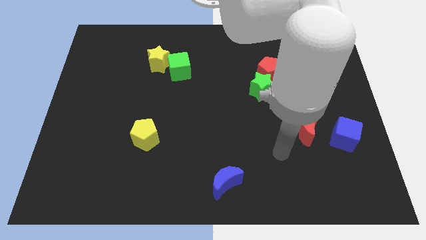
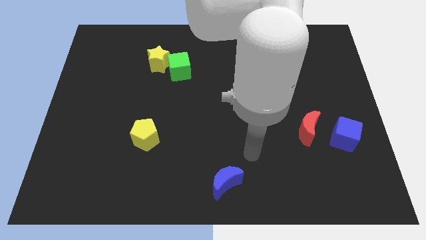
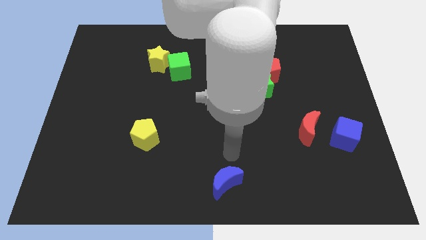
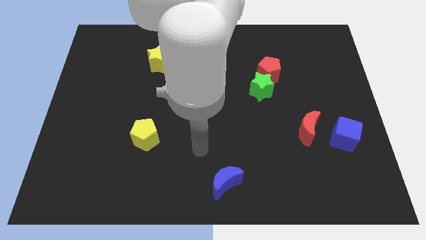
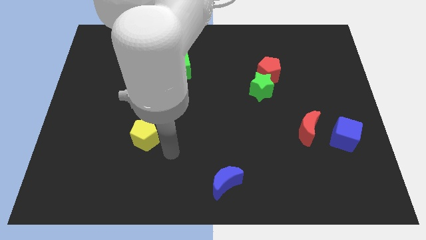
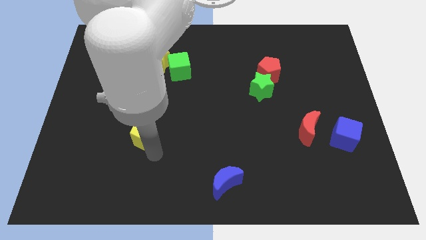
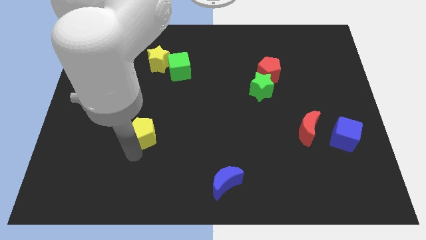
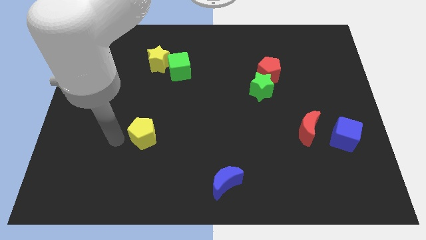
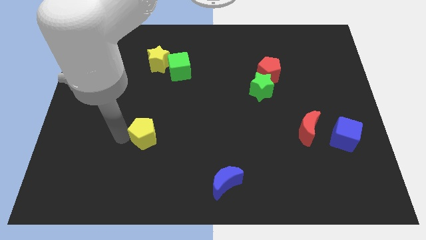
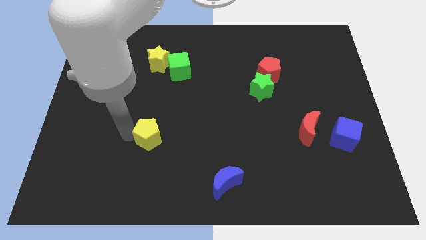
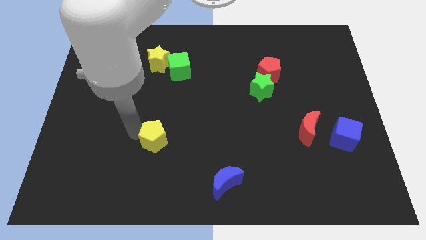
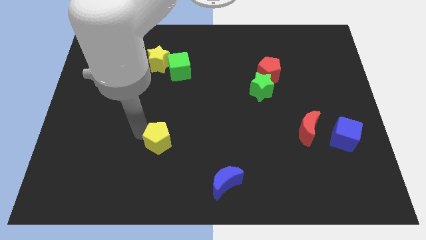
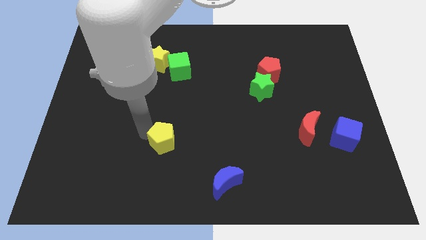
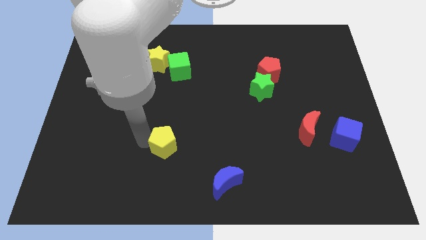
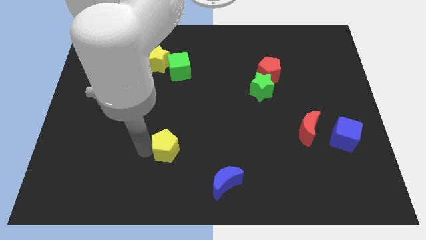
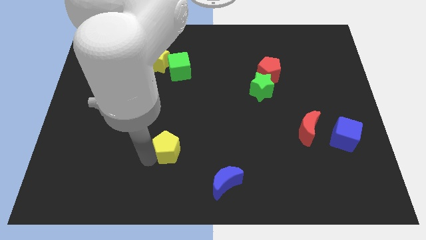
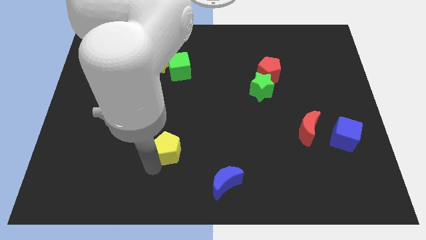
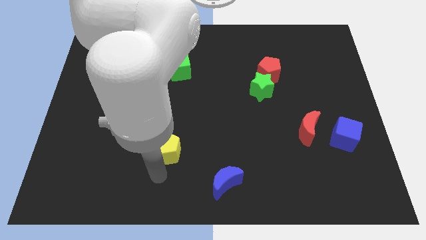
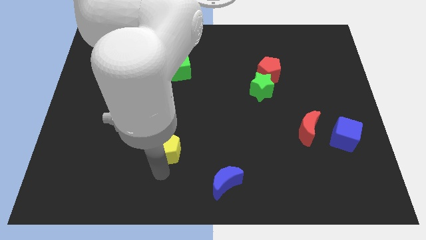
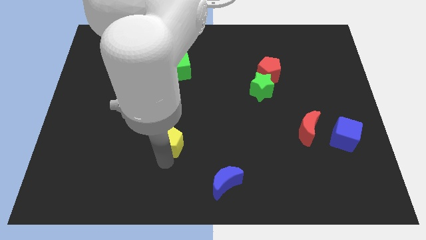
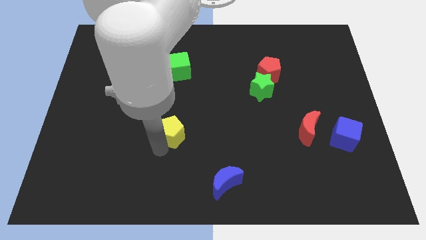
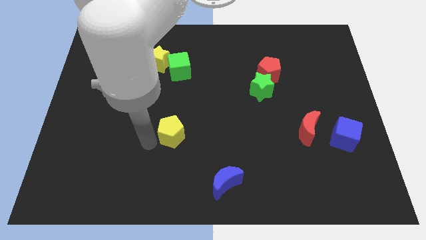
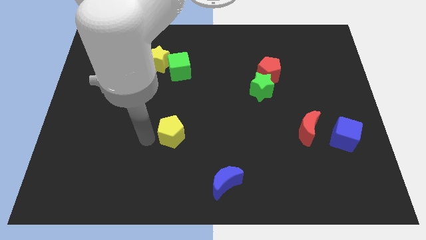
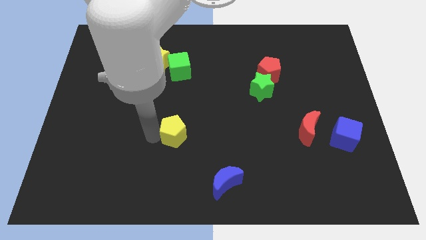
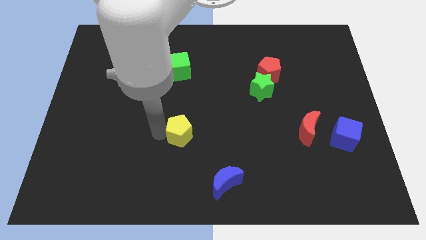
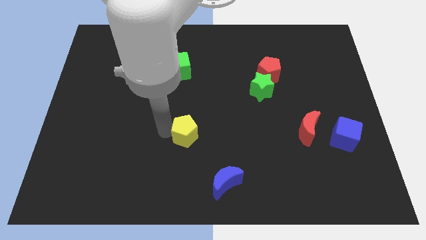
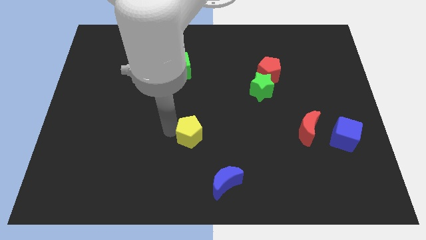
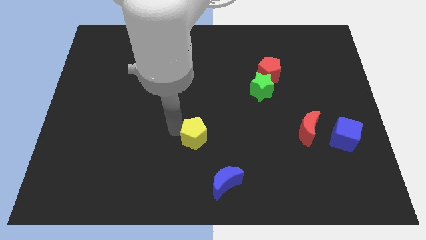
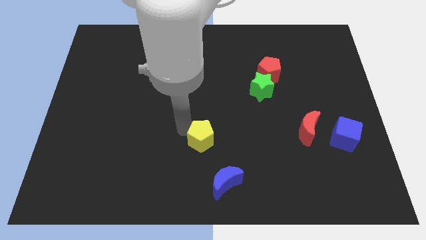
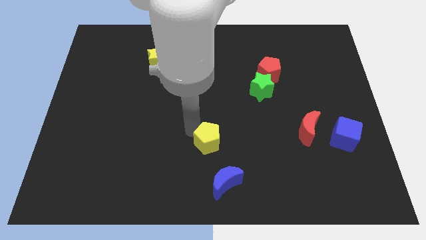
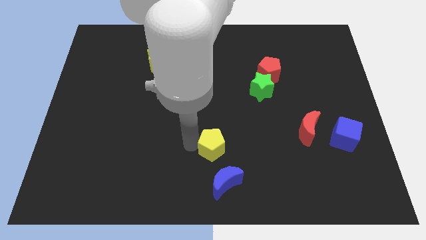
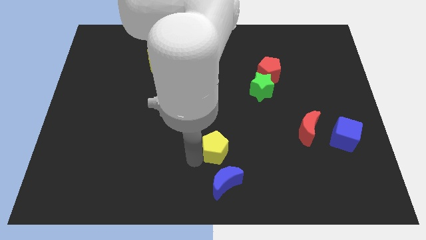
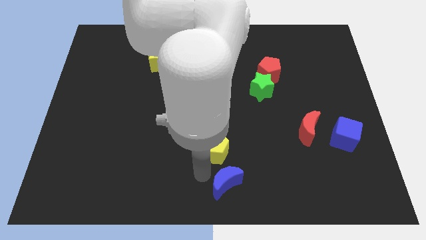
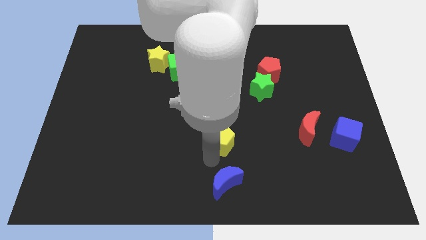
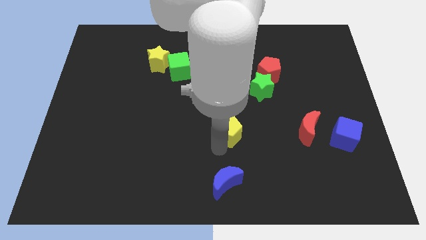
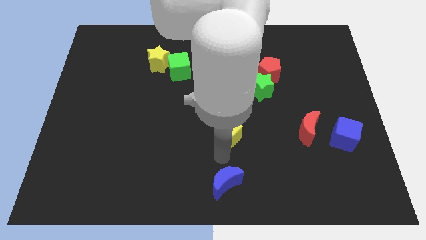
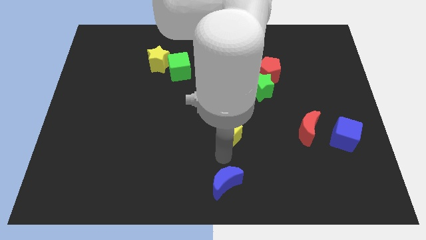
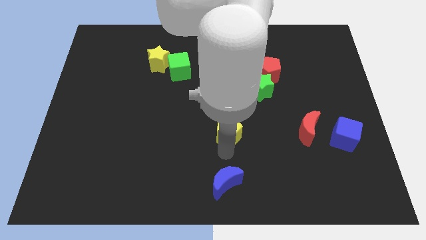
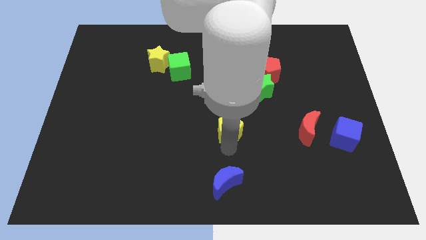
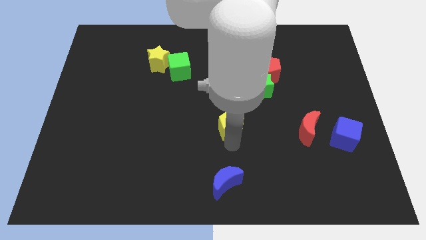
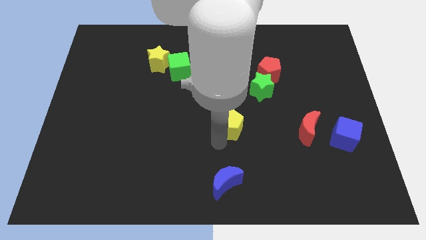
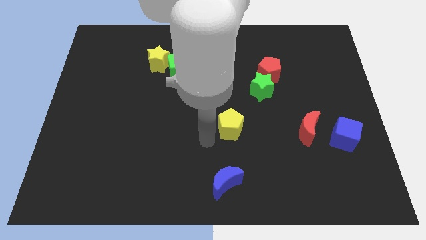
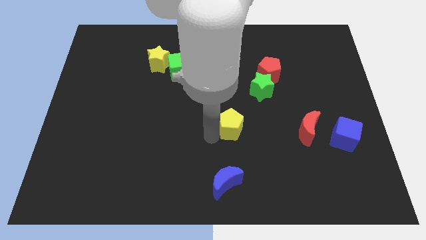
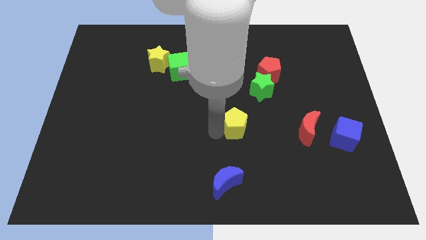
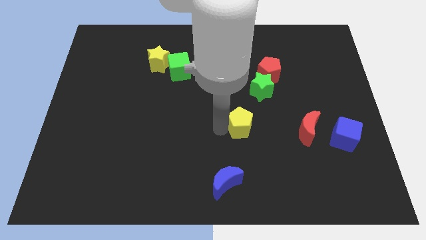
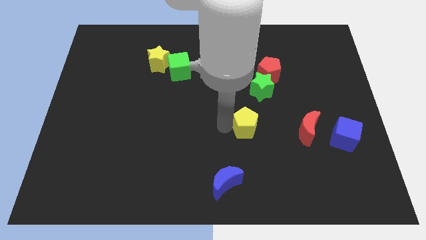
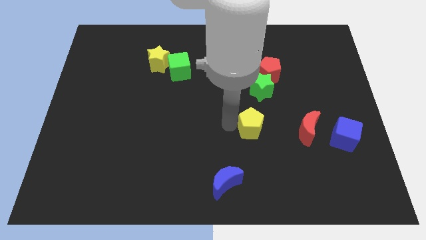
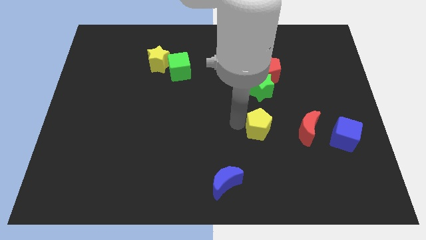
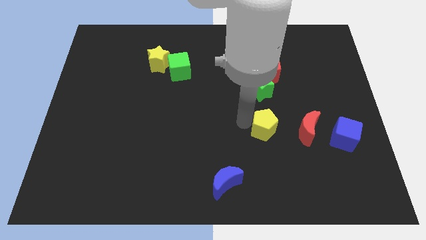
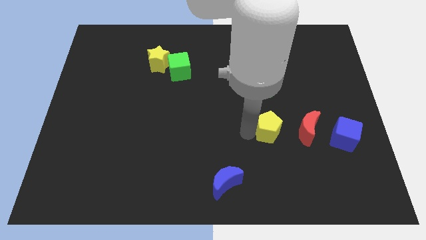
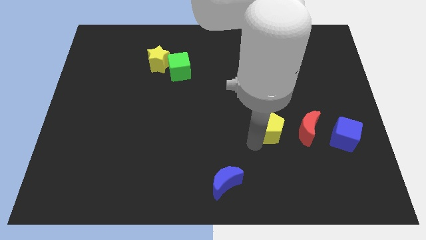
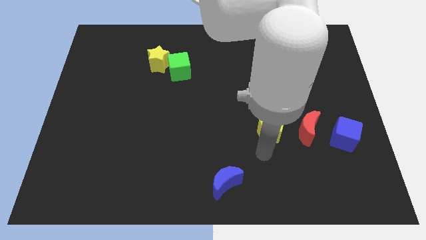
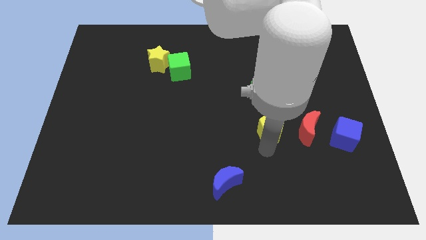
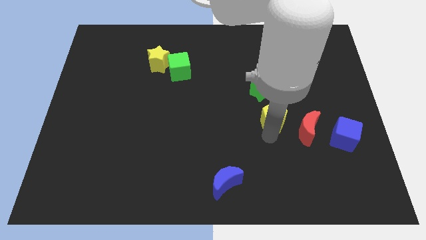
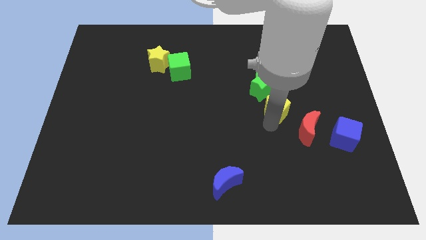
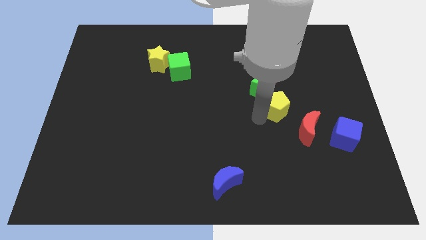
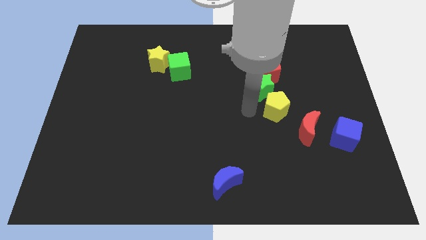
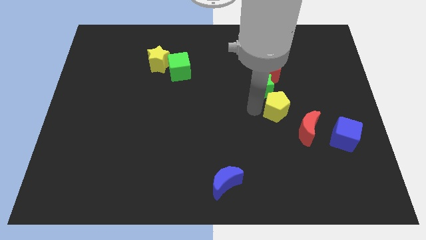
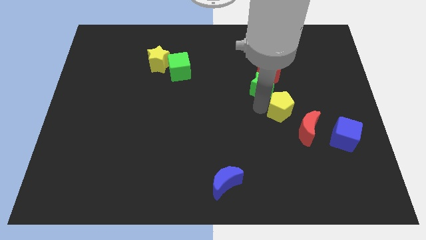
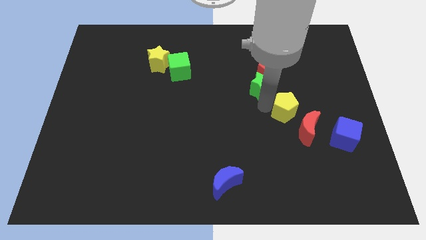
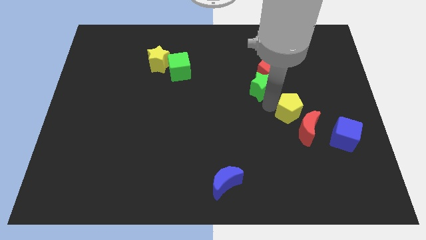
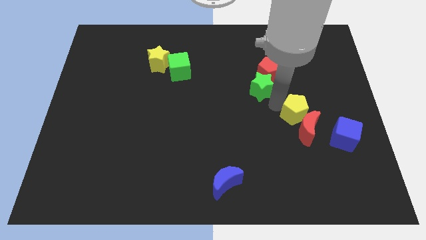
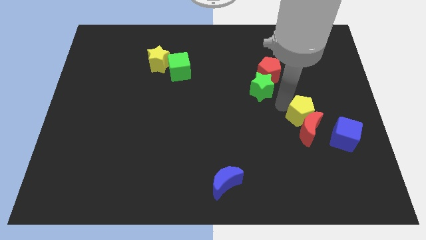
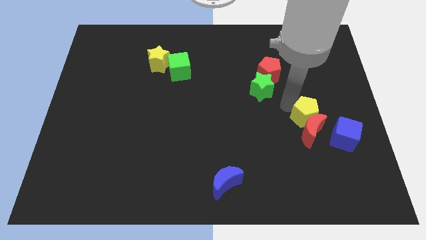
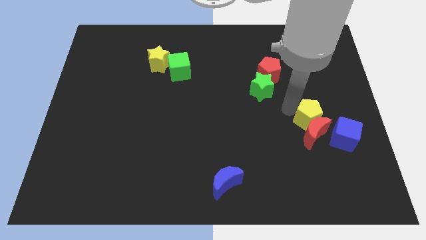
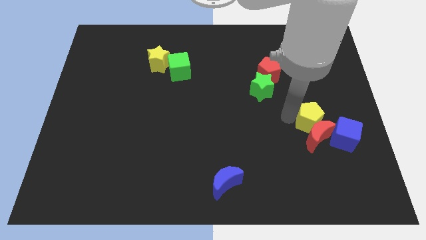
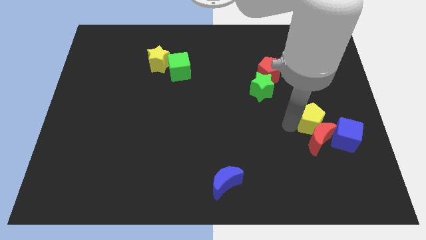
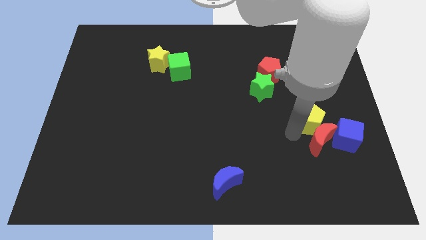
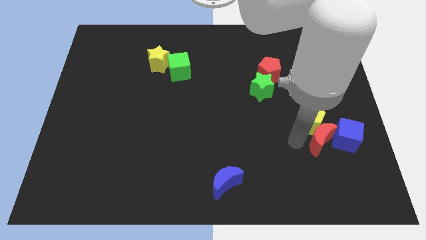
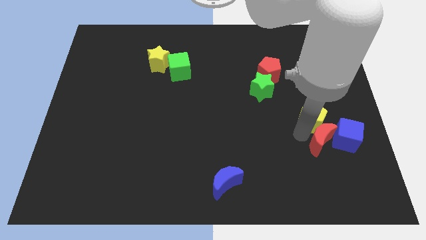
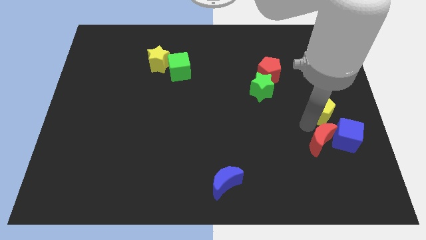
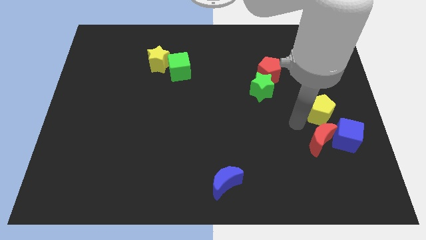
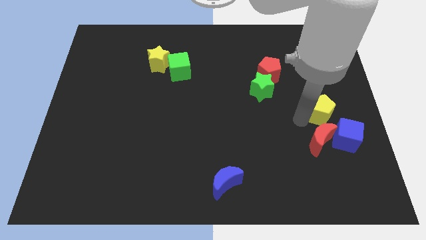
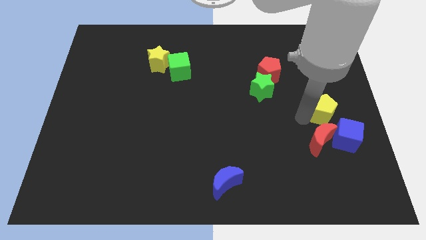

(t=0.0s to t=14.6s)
put the yellow pentagon to the right side
